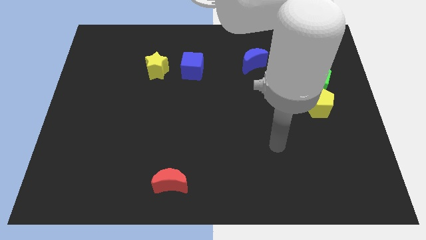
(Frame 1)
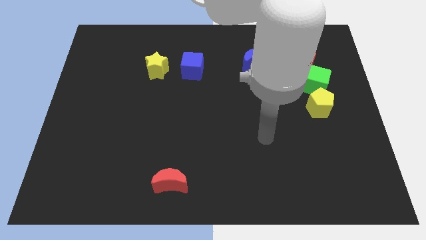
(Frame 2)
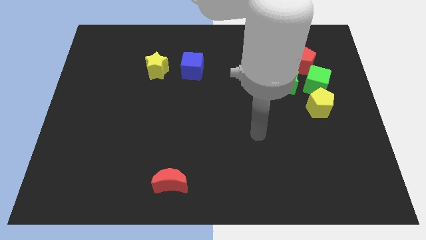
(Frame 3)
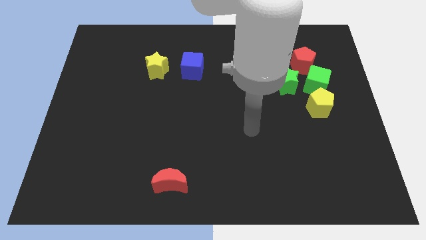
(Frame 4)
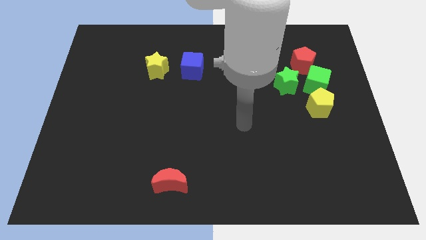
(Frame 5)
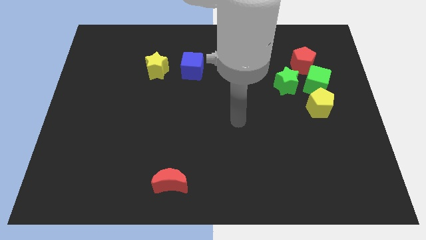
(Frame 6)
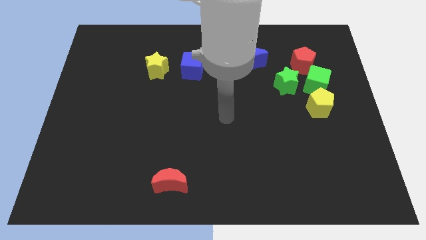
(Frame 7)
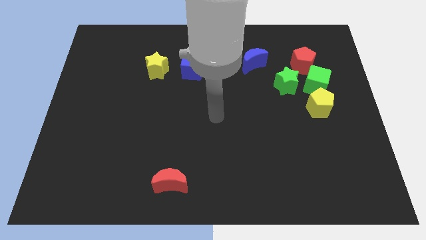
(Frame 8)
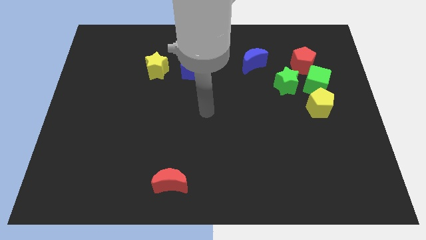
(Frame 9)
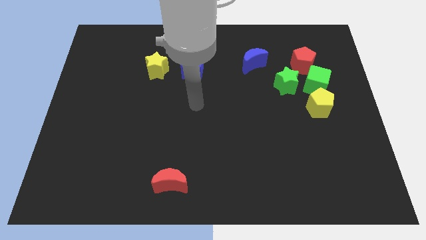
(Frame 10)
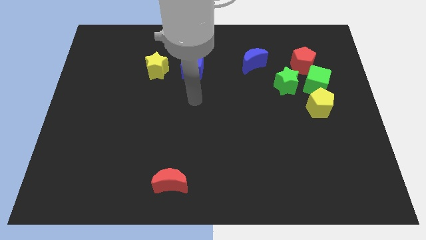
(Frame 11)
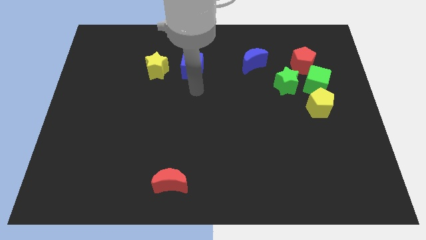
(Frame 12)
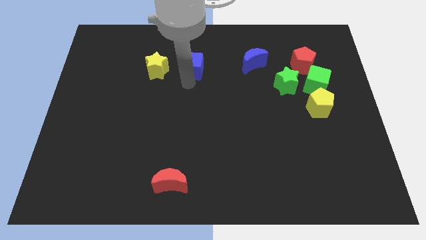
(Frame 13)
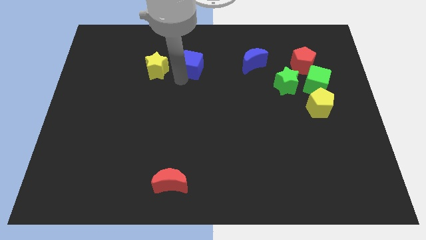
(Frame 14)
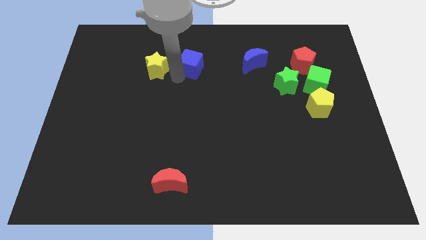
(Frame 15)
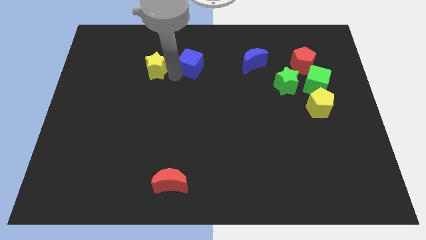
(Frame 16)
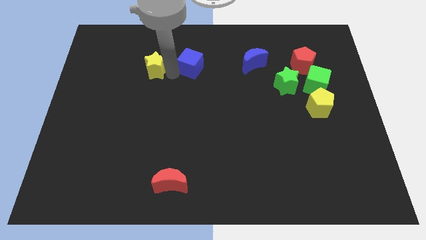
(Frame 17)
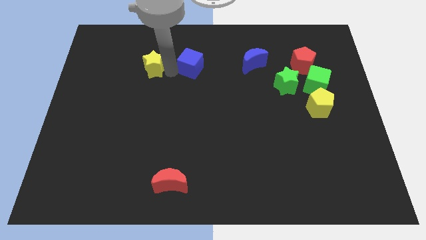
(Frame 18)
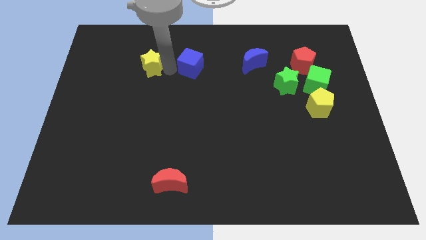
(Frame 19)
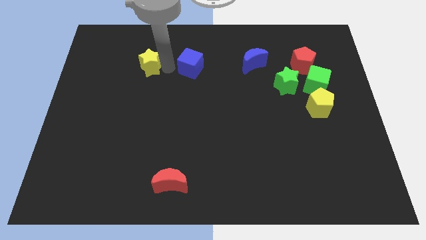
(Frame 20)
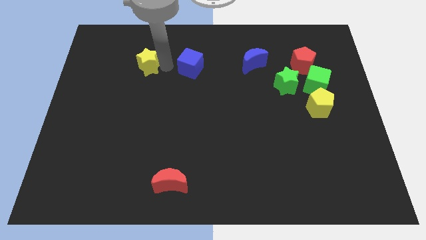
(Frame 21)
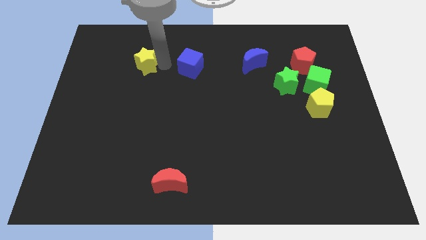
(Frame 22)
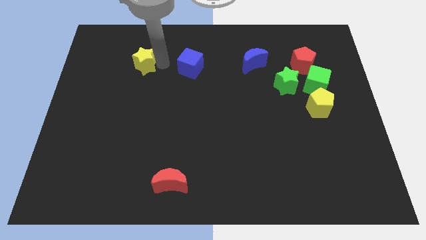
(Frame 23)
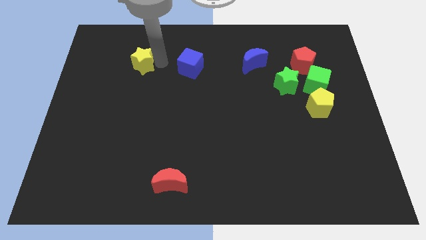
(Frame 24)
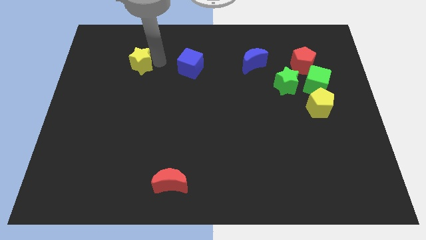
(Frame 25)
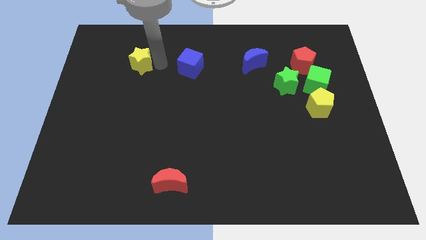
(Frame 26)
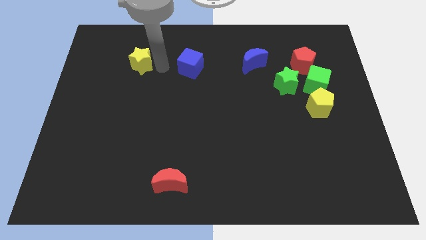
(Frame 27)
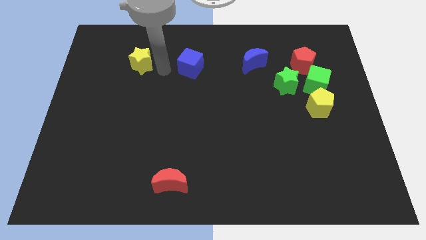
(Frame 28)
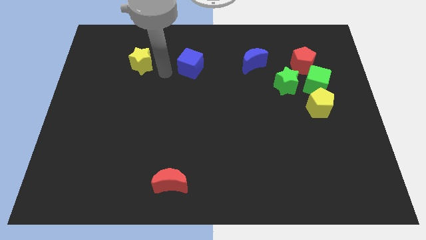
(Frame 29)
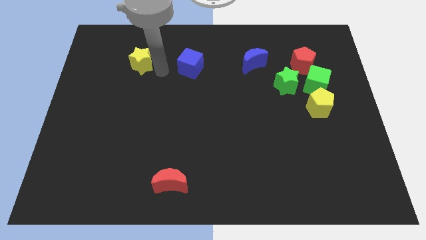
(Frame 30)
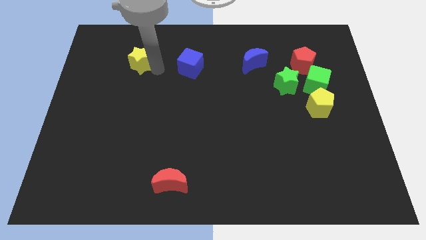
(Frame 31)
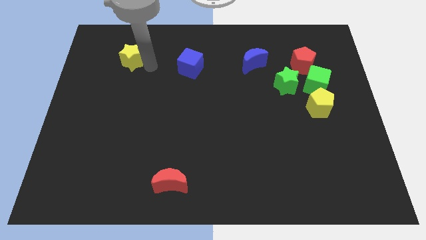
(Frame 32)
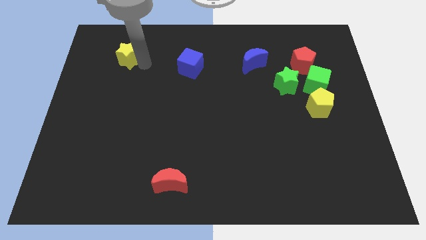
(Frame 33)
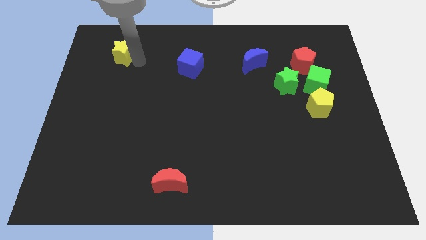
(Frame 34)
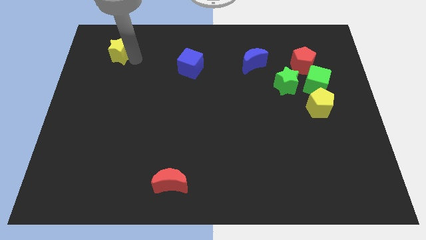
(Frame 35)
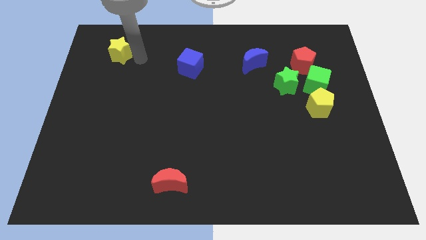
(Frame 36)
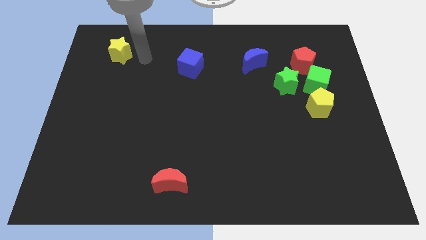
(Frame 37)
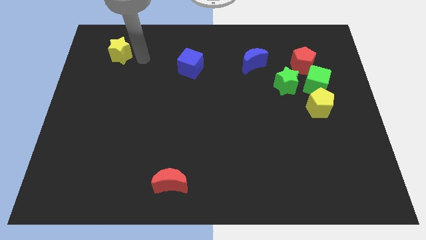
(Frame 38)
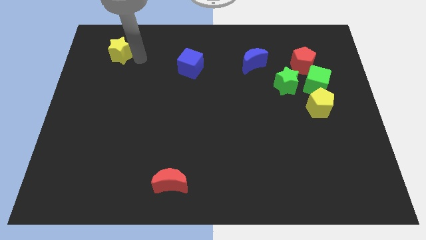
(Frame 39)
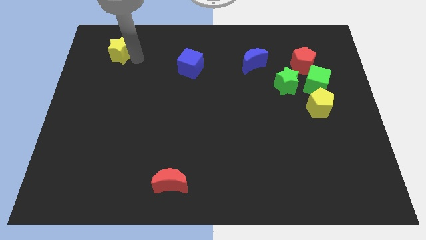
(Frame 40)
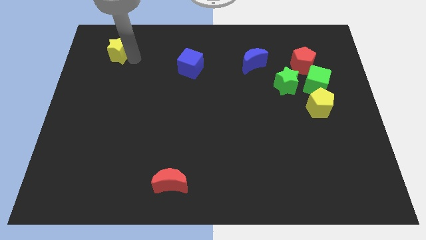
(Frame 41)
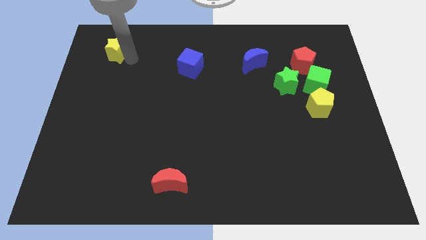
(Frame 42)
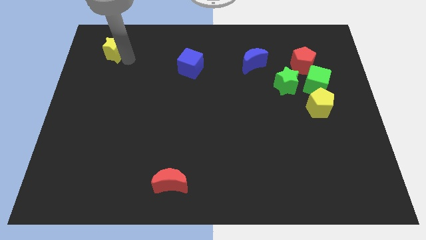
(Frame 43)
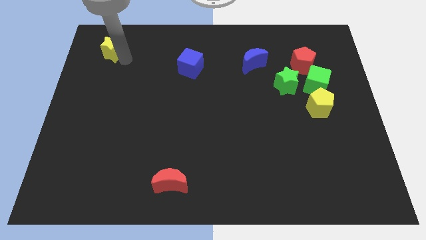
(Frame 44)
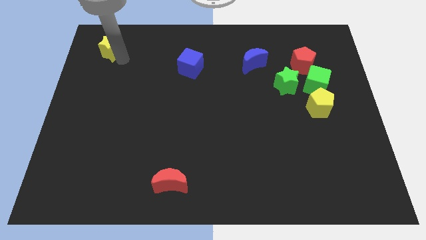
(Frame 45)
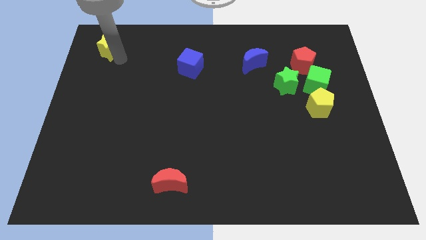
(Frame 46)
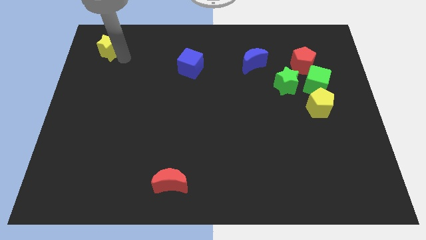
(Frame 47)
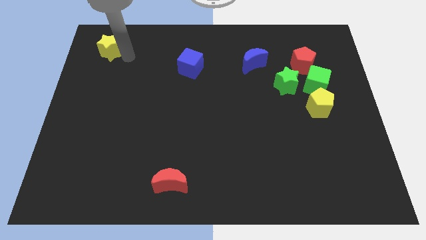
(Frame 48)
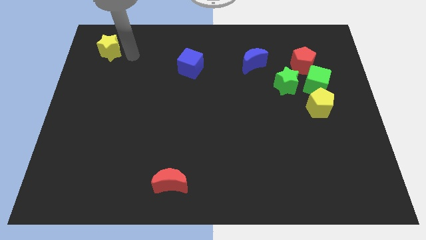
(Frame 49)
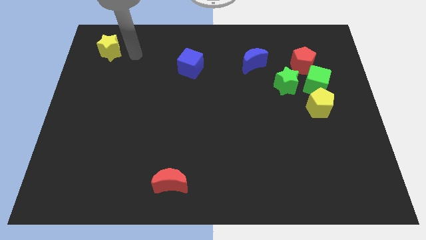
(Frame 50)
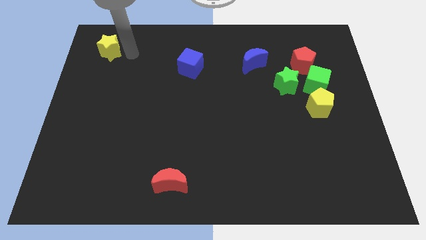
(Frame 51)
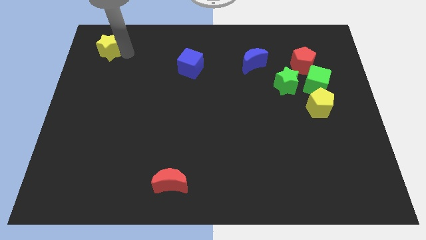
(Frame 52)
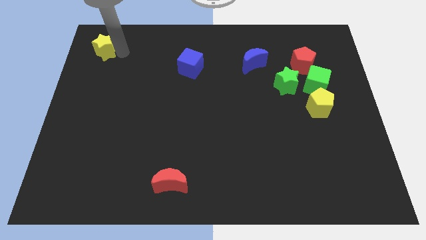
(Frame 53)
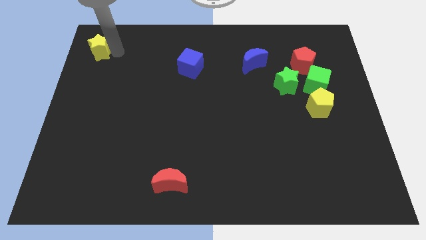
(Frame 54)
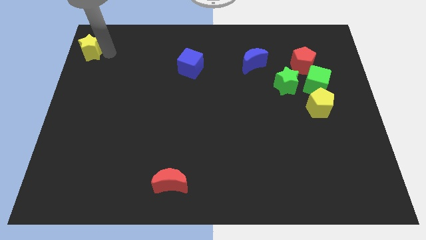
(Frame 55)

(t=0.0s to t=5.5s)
put the yellow star to the top left

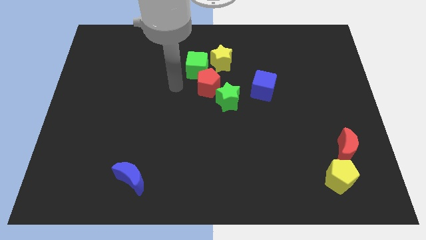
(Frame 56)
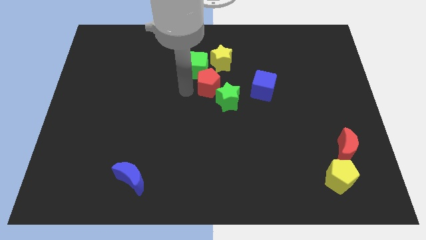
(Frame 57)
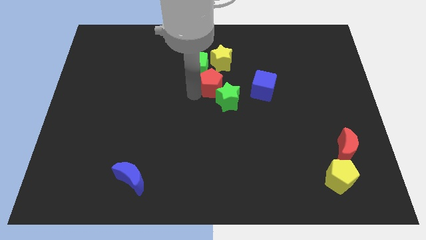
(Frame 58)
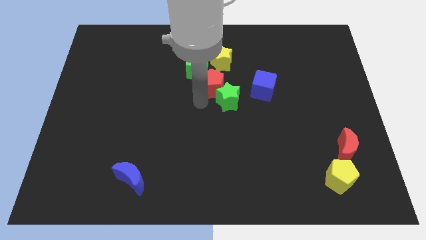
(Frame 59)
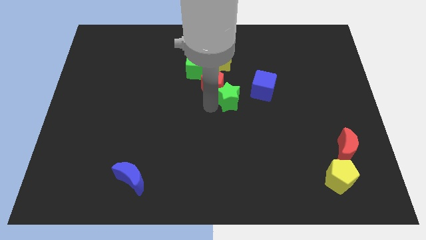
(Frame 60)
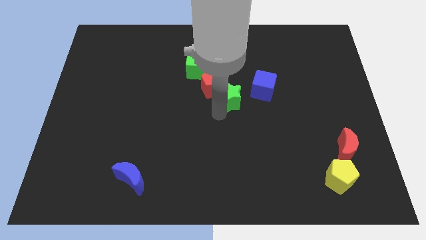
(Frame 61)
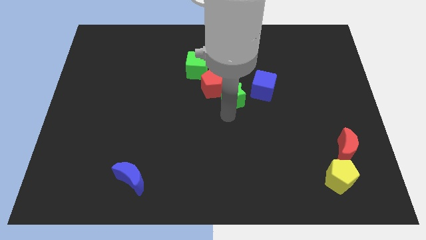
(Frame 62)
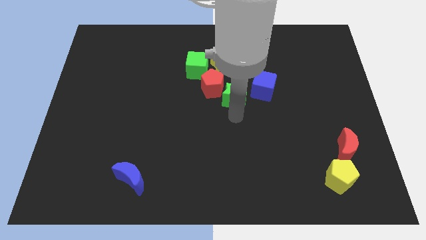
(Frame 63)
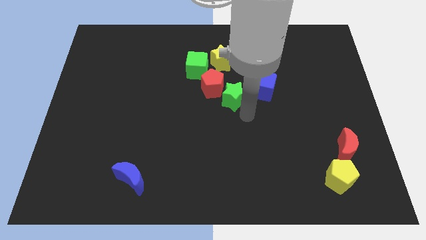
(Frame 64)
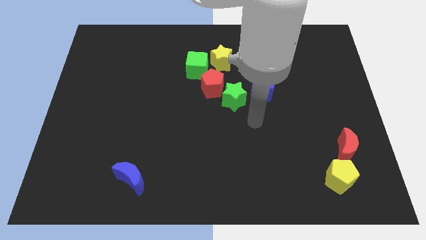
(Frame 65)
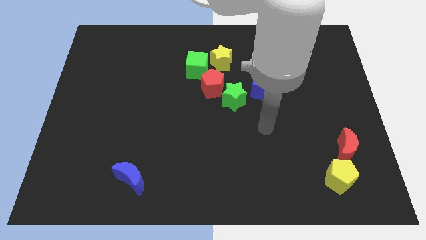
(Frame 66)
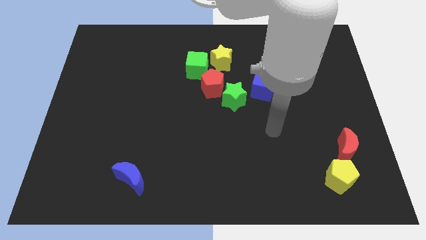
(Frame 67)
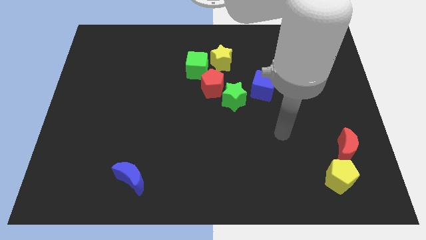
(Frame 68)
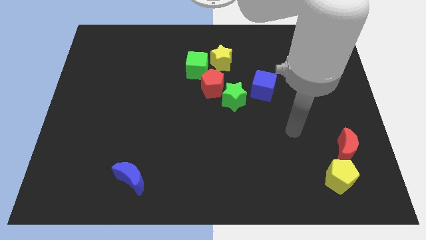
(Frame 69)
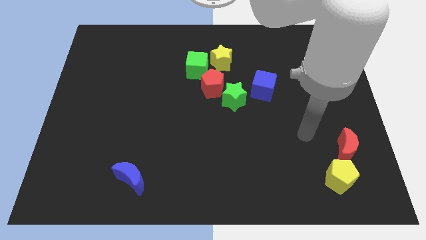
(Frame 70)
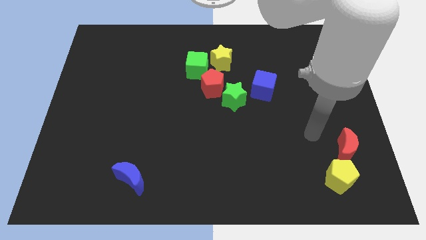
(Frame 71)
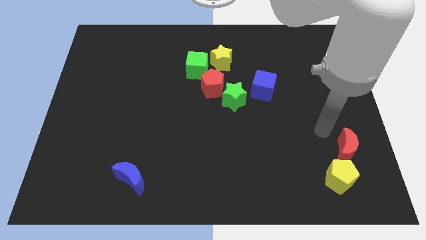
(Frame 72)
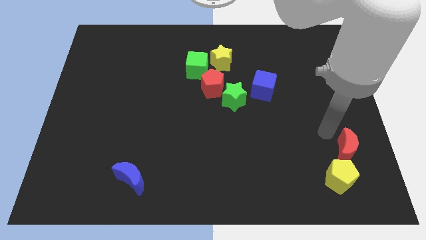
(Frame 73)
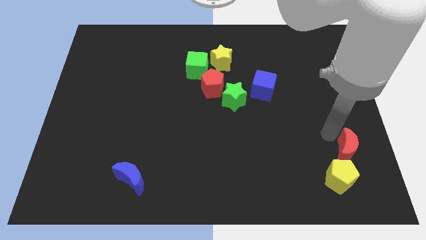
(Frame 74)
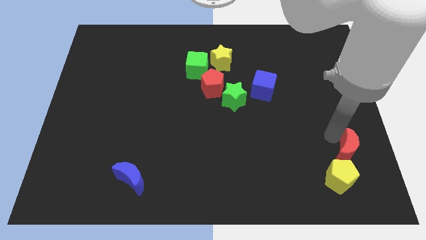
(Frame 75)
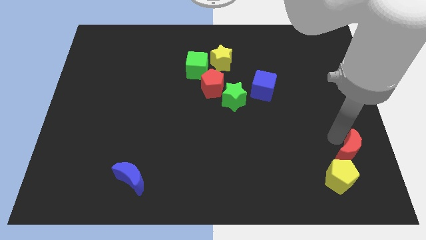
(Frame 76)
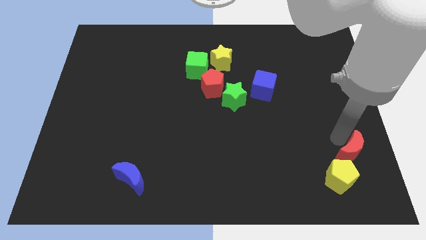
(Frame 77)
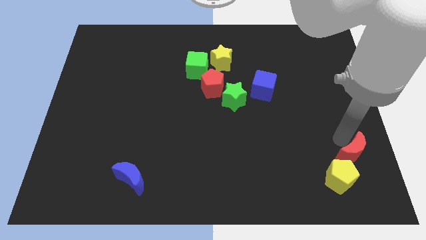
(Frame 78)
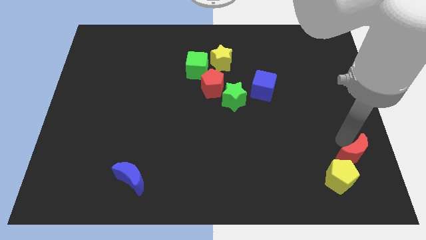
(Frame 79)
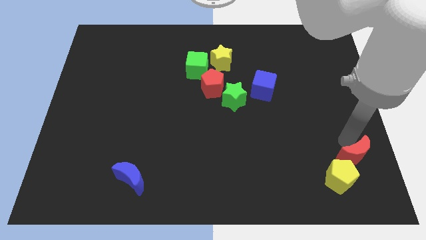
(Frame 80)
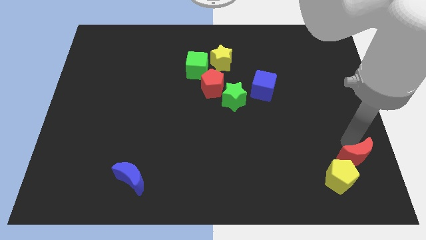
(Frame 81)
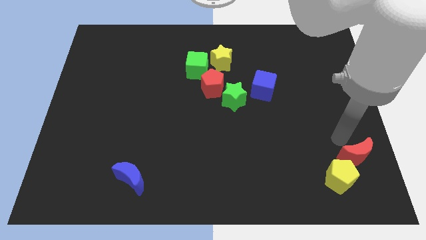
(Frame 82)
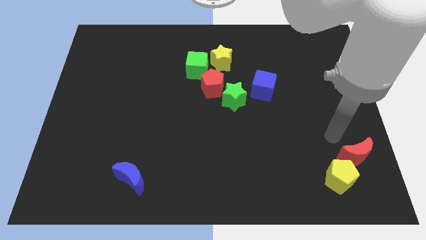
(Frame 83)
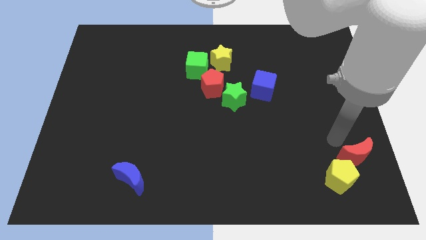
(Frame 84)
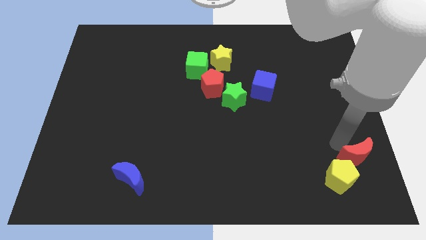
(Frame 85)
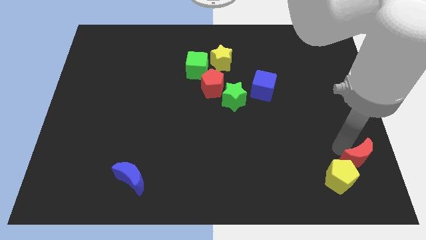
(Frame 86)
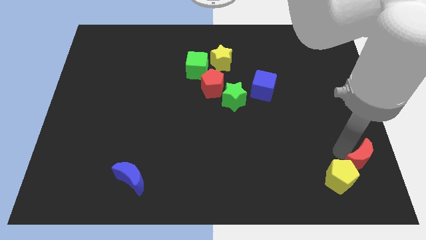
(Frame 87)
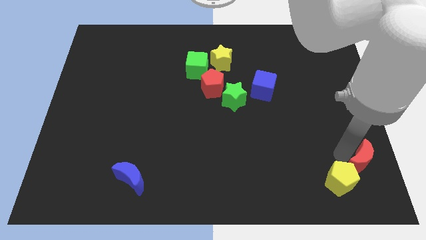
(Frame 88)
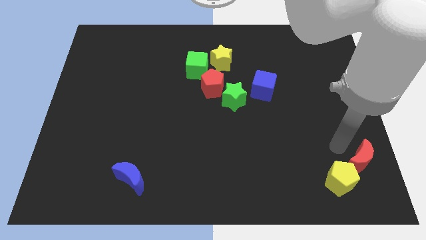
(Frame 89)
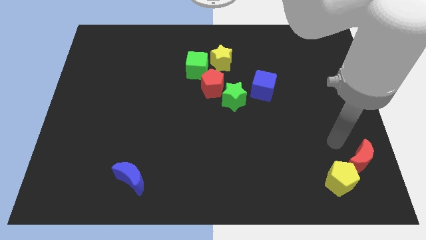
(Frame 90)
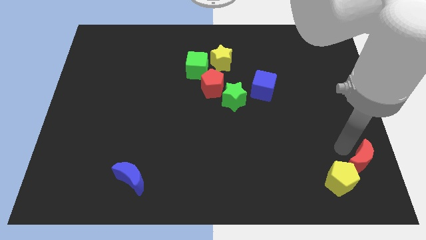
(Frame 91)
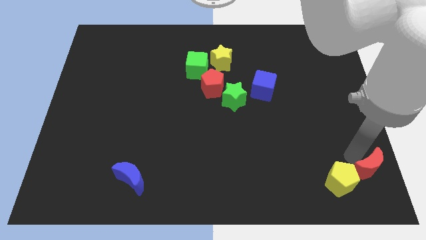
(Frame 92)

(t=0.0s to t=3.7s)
put the red moon to the bottom right corner
